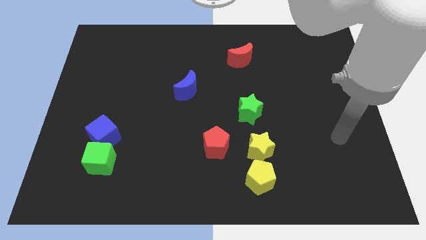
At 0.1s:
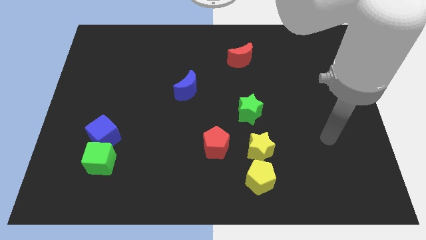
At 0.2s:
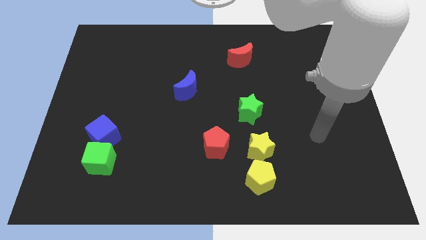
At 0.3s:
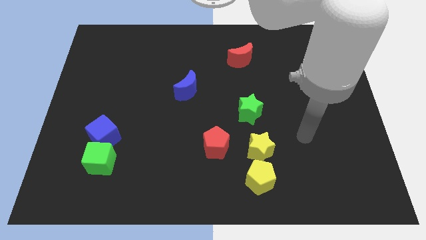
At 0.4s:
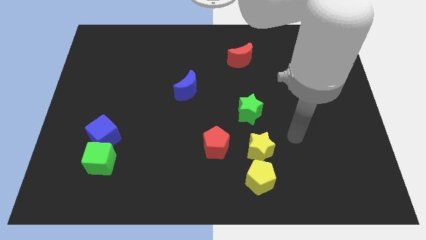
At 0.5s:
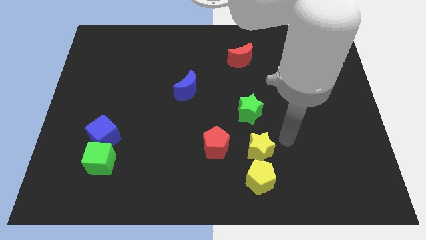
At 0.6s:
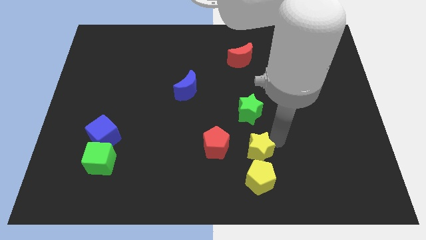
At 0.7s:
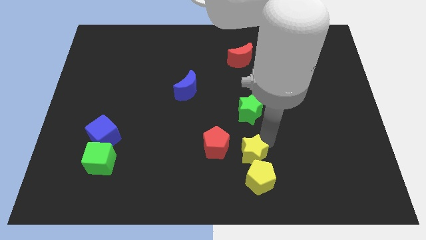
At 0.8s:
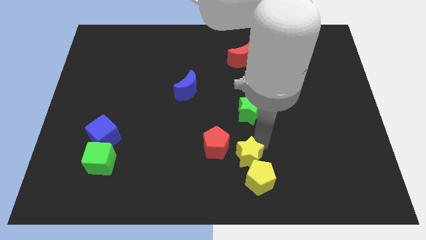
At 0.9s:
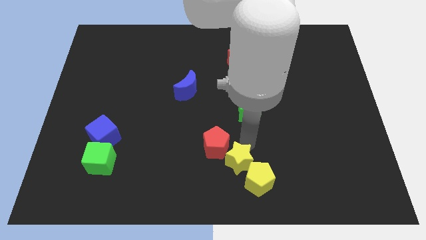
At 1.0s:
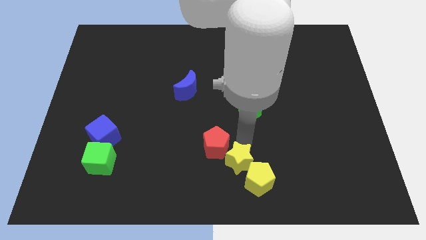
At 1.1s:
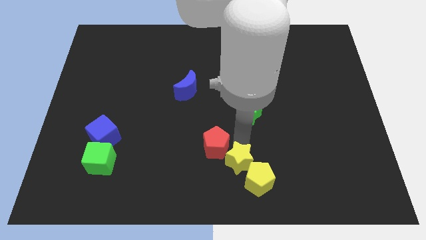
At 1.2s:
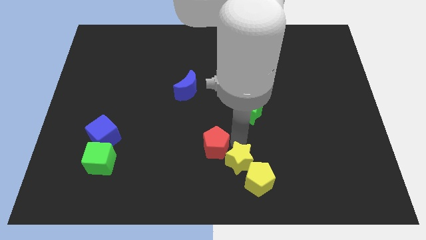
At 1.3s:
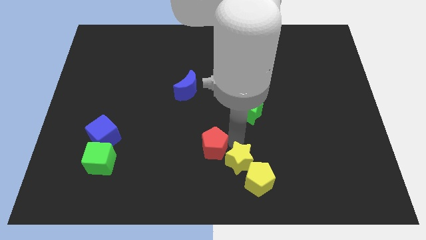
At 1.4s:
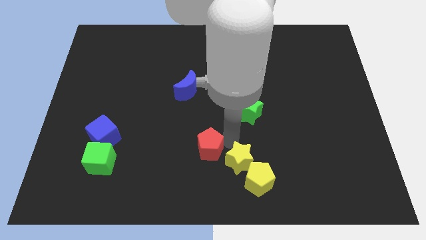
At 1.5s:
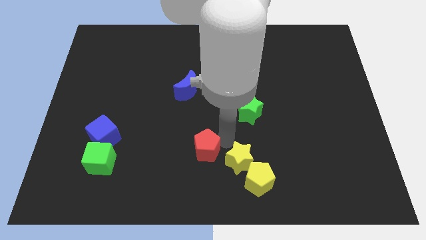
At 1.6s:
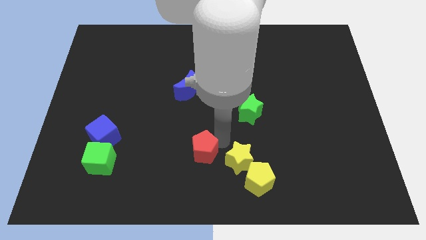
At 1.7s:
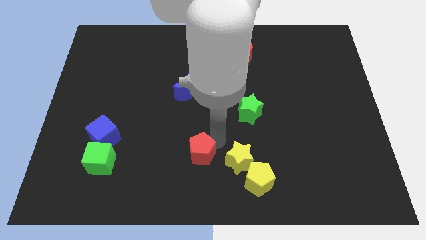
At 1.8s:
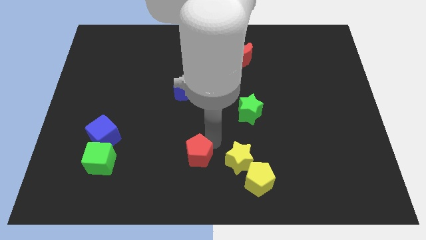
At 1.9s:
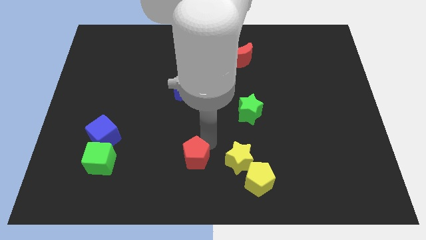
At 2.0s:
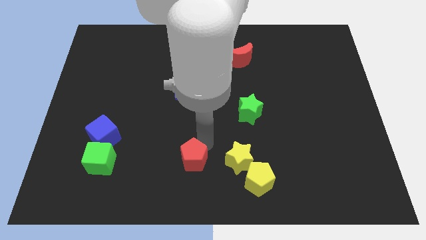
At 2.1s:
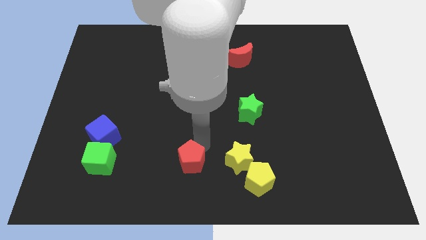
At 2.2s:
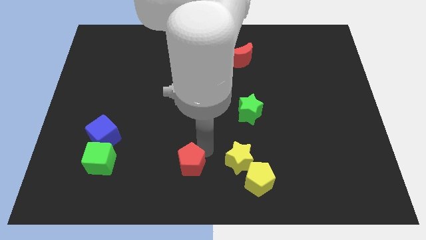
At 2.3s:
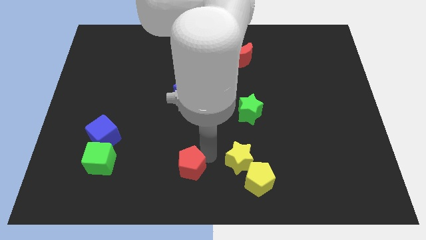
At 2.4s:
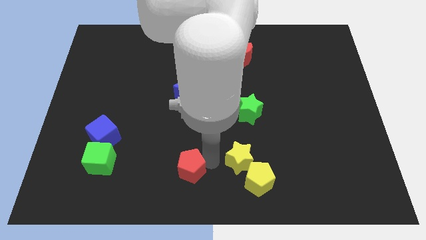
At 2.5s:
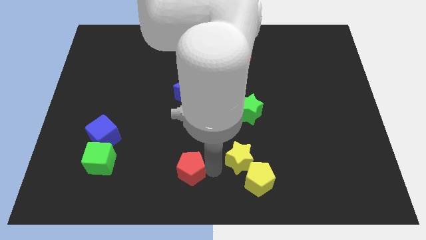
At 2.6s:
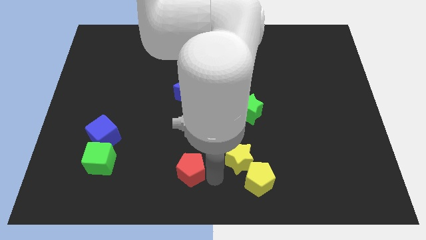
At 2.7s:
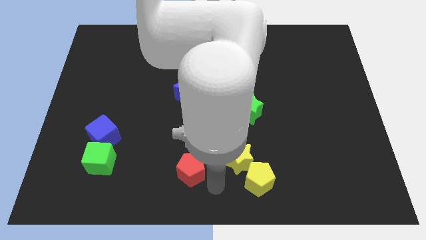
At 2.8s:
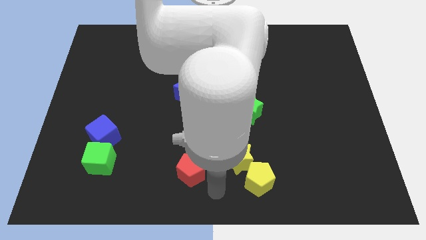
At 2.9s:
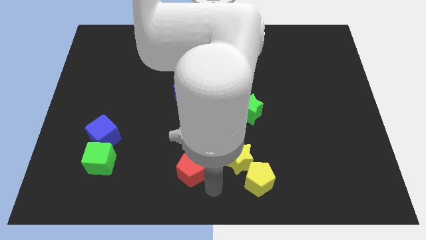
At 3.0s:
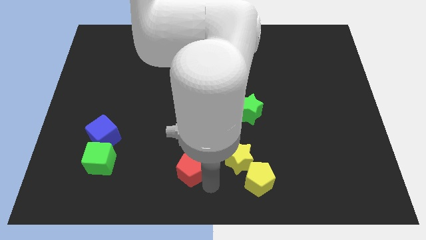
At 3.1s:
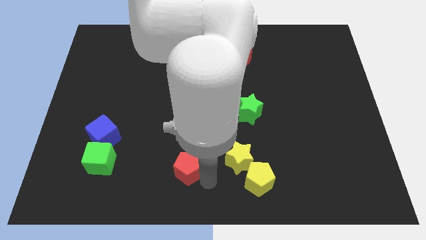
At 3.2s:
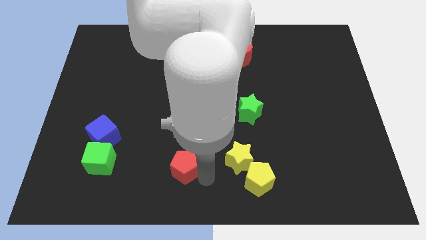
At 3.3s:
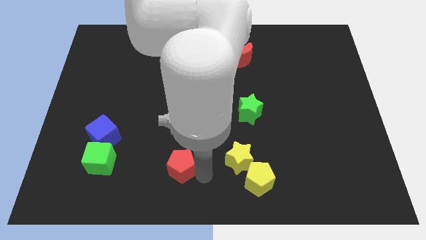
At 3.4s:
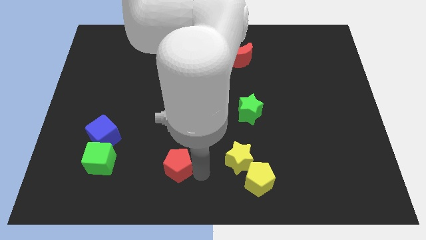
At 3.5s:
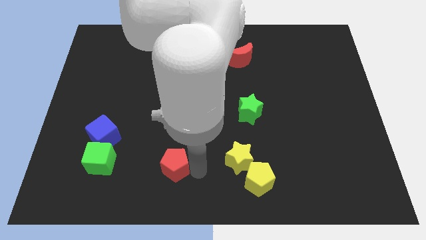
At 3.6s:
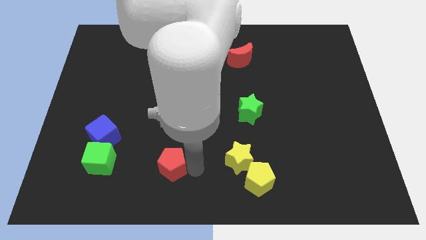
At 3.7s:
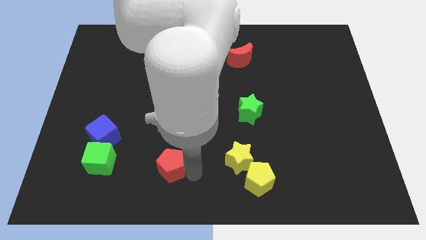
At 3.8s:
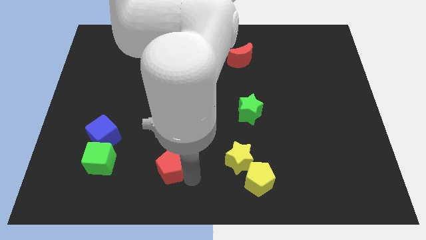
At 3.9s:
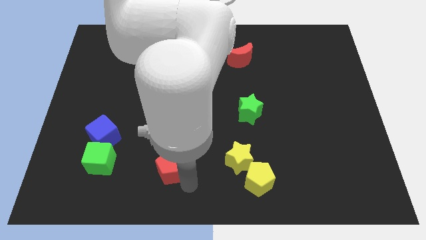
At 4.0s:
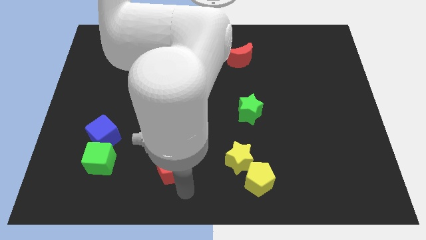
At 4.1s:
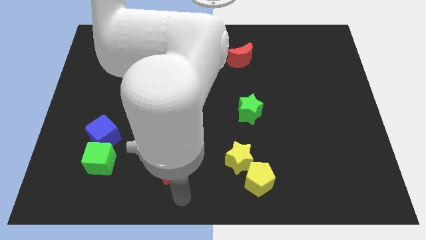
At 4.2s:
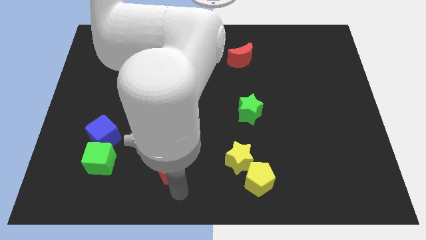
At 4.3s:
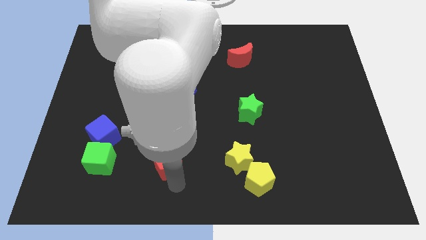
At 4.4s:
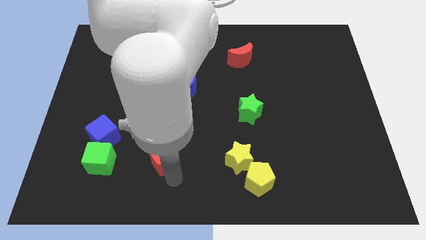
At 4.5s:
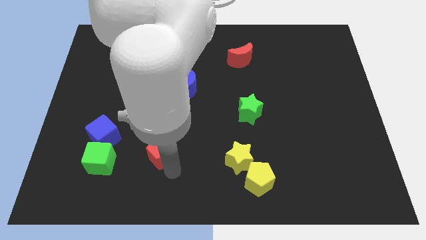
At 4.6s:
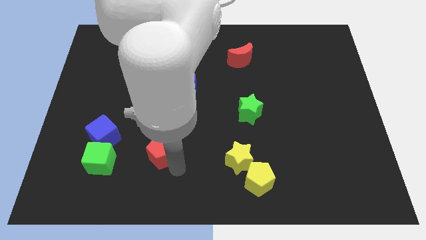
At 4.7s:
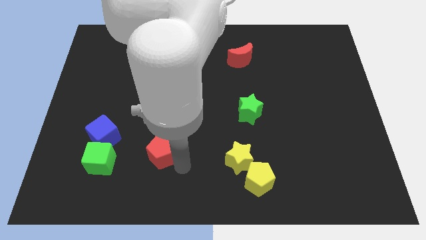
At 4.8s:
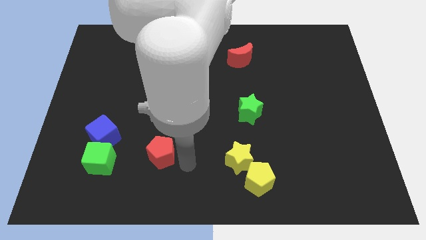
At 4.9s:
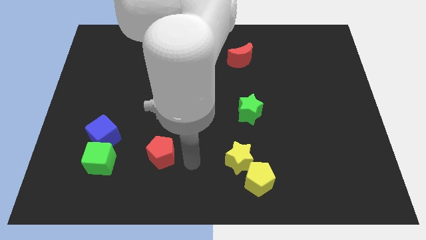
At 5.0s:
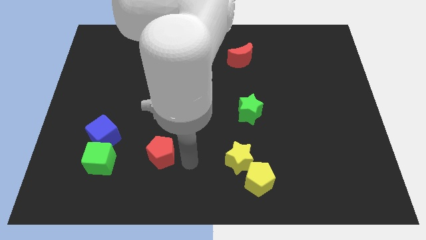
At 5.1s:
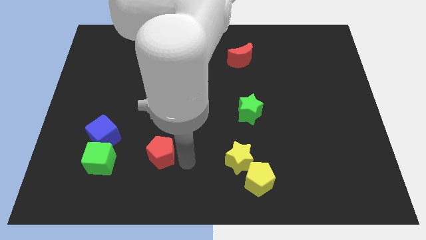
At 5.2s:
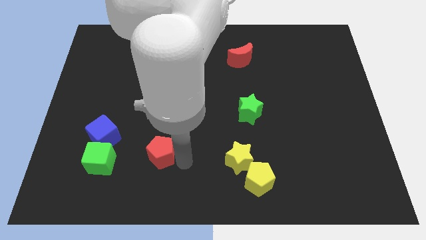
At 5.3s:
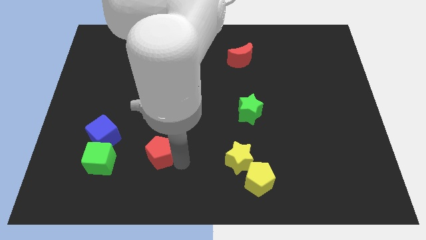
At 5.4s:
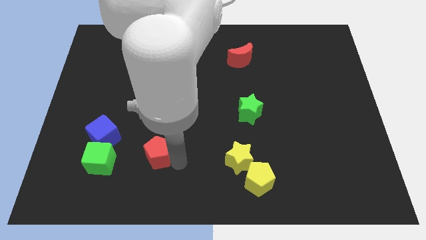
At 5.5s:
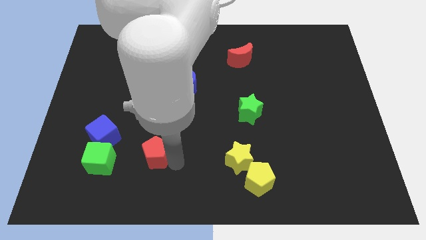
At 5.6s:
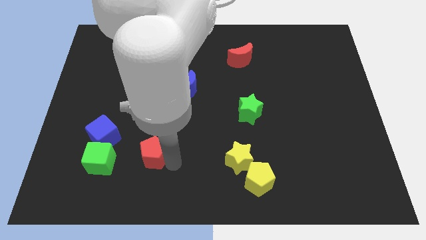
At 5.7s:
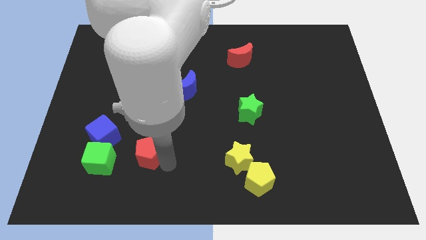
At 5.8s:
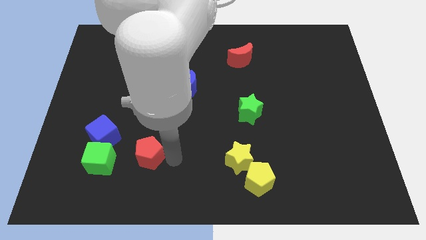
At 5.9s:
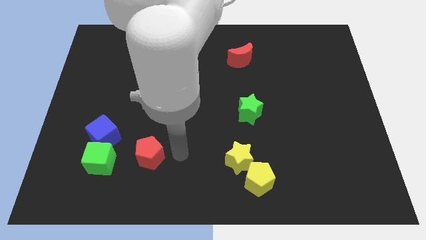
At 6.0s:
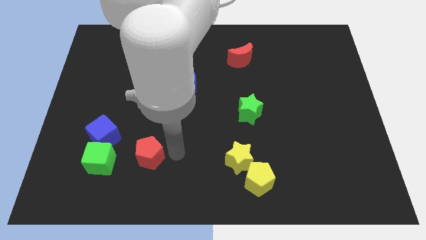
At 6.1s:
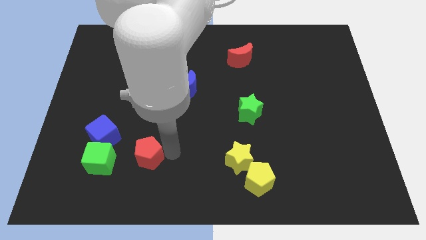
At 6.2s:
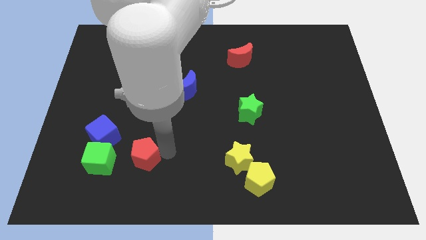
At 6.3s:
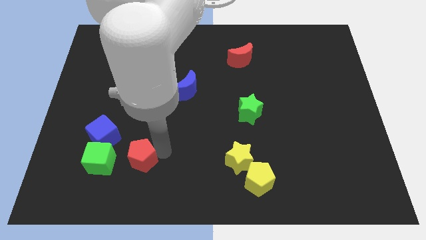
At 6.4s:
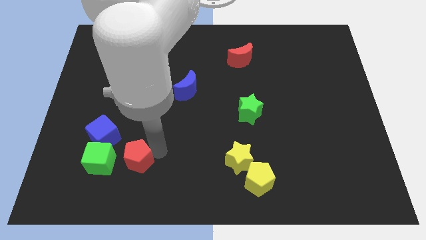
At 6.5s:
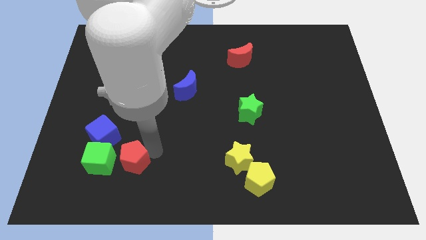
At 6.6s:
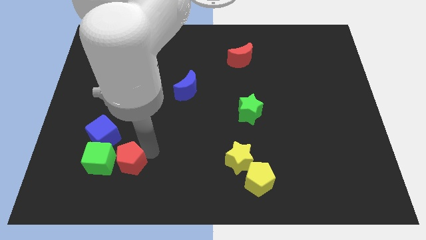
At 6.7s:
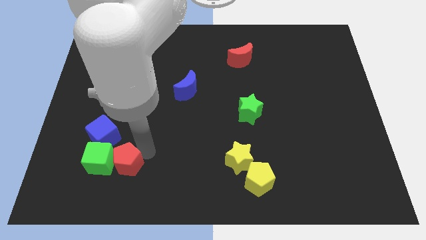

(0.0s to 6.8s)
move the red pentagon towards the green cube
